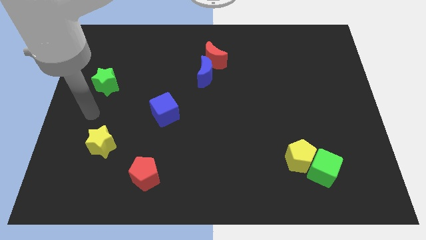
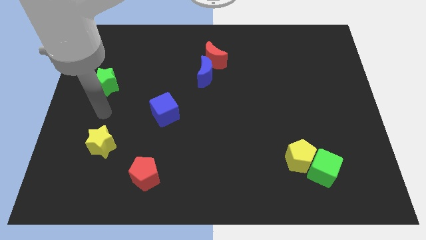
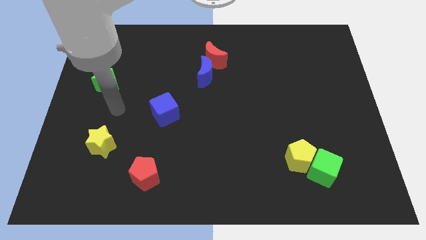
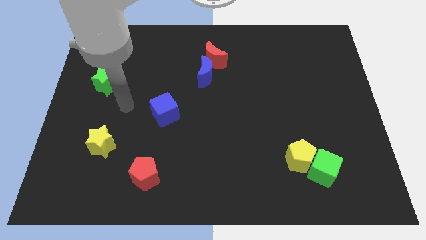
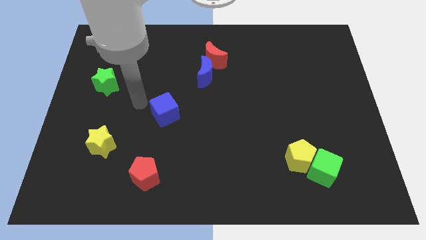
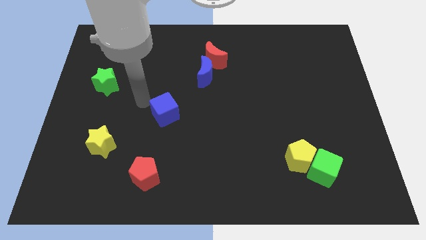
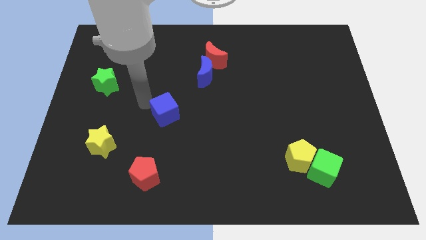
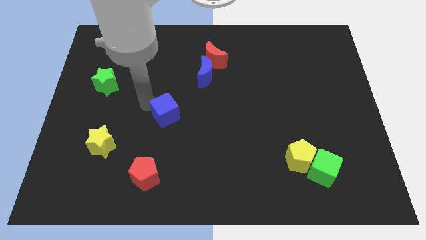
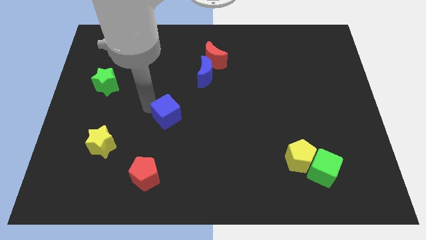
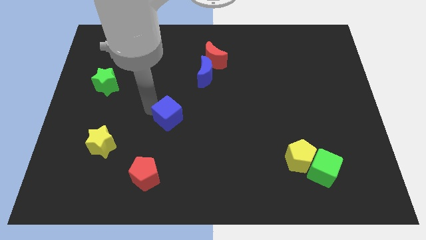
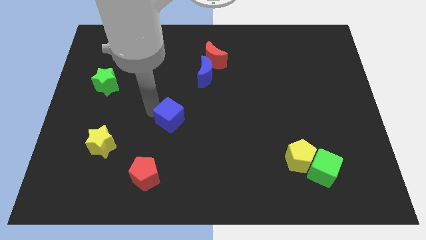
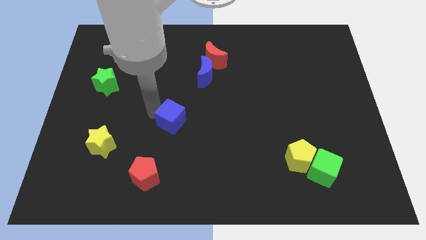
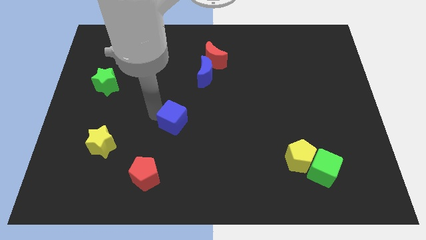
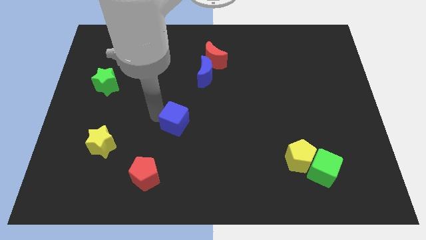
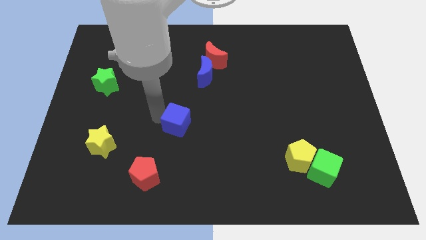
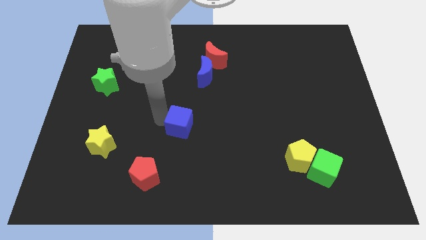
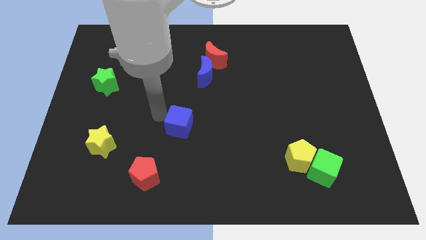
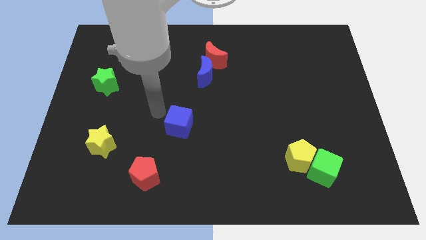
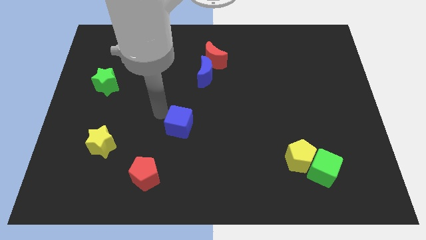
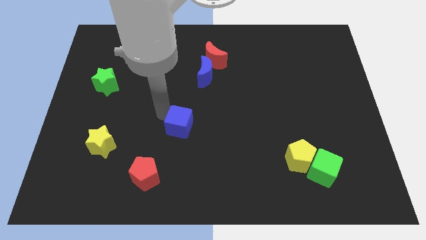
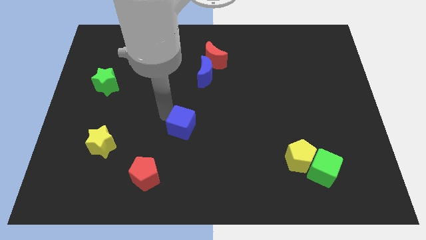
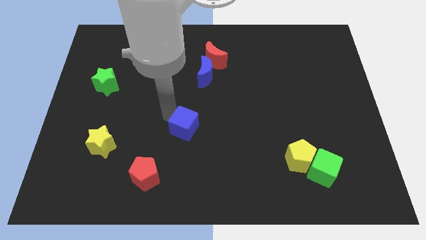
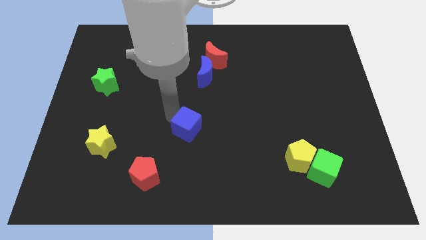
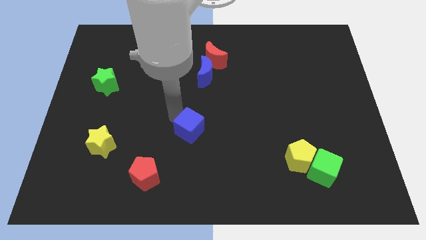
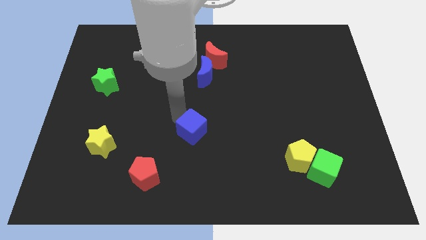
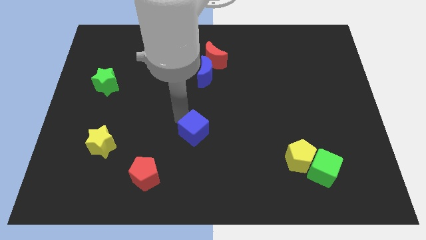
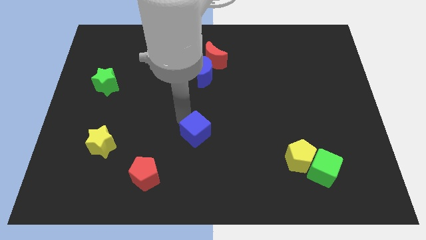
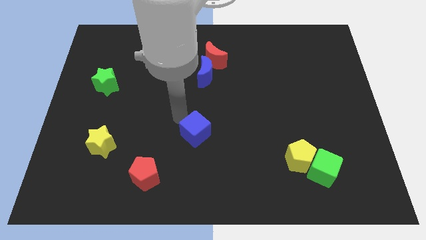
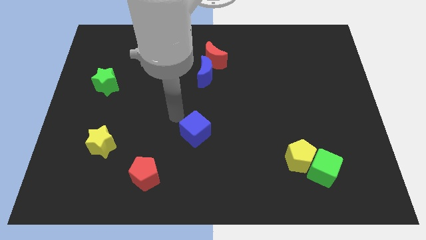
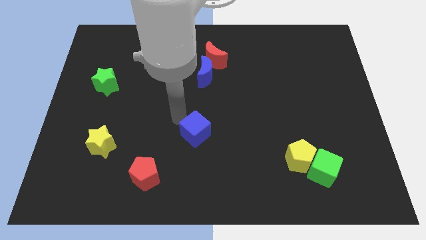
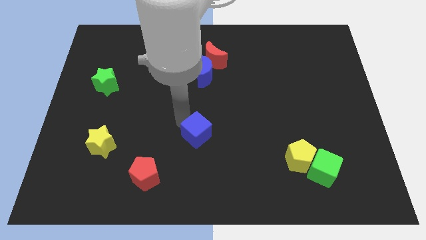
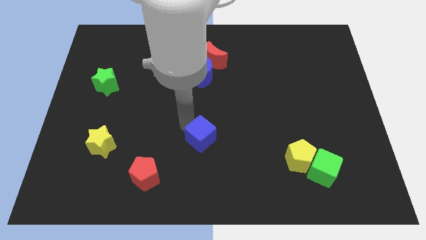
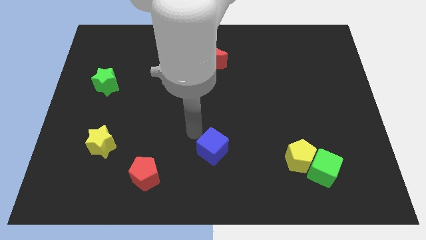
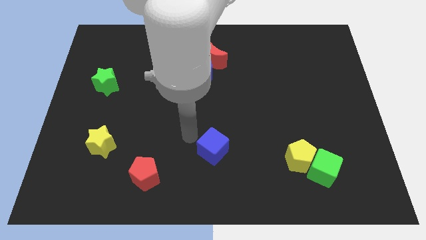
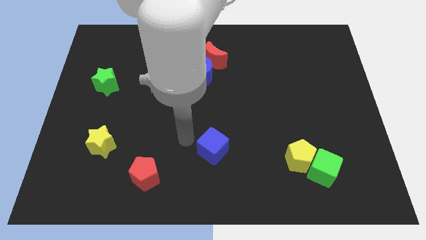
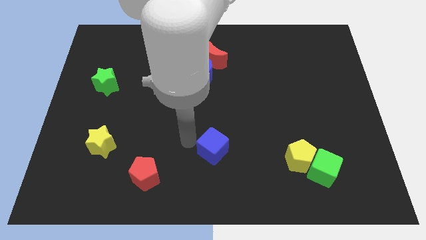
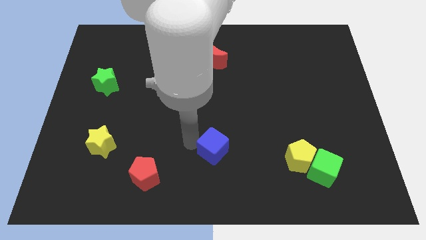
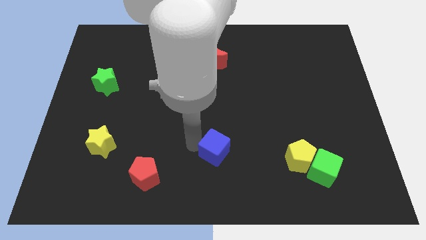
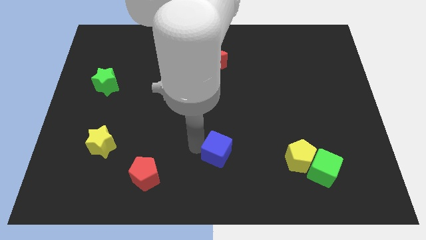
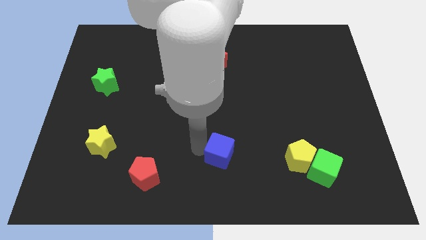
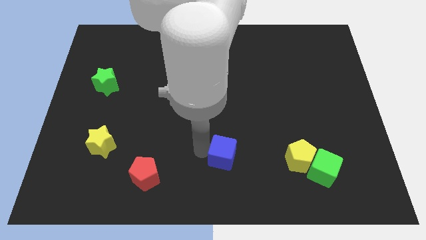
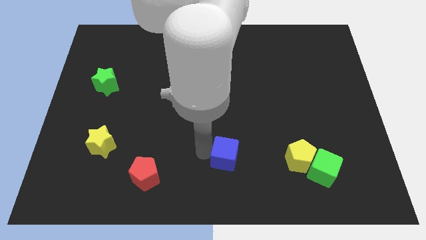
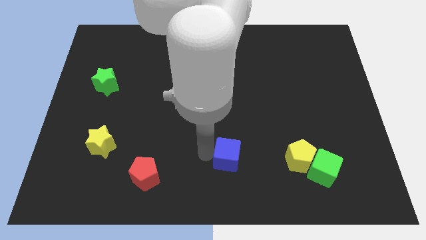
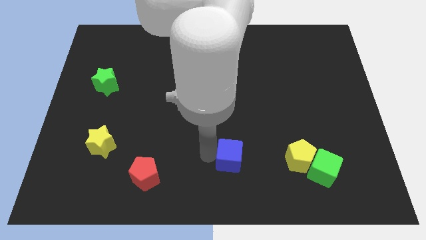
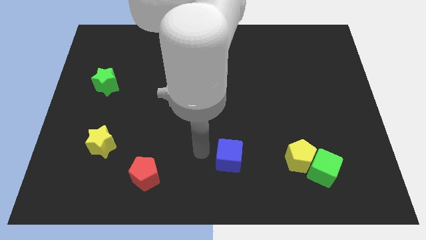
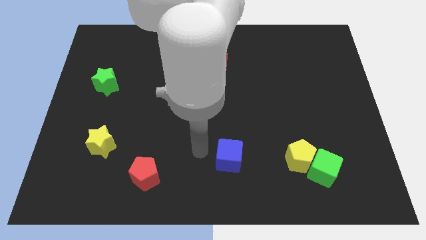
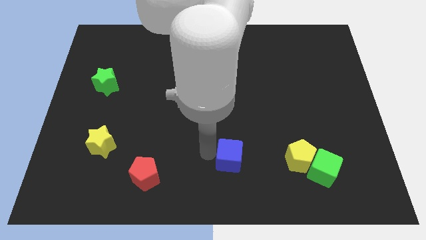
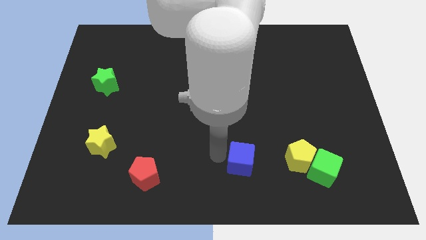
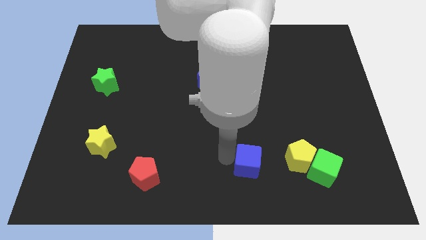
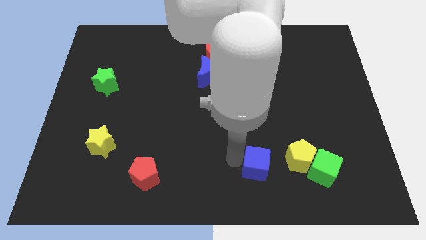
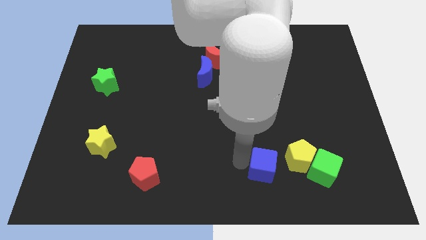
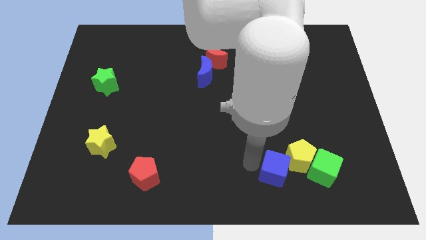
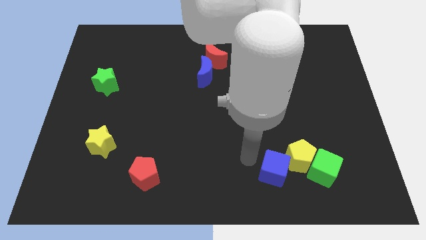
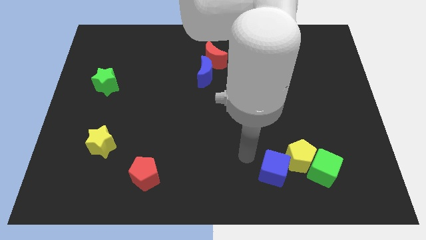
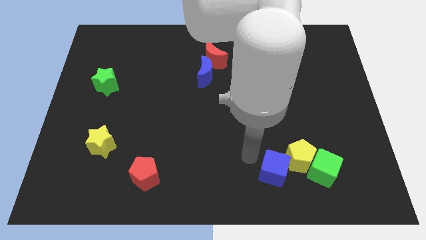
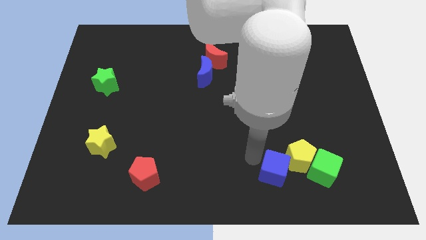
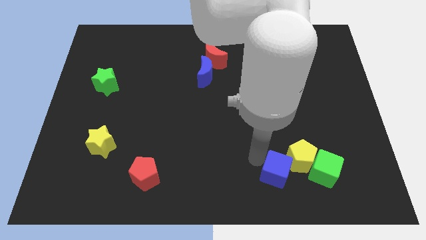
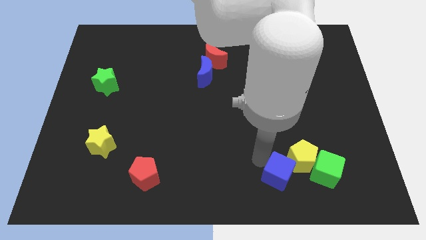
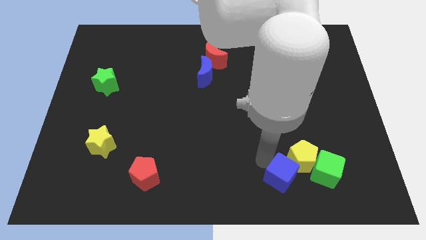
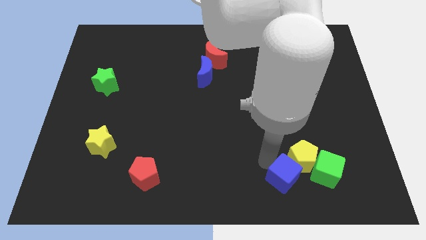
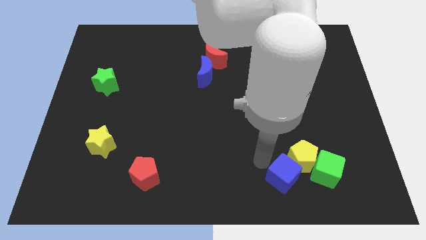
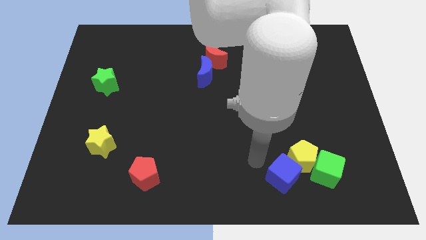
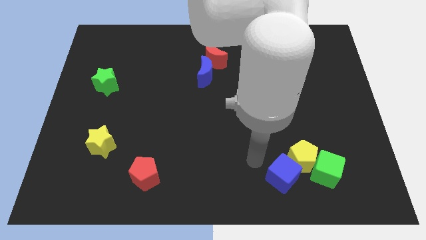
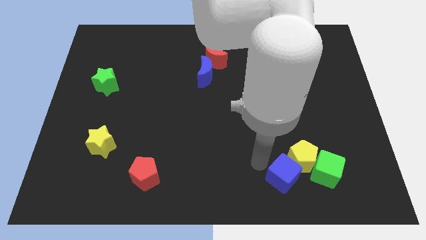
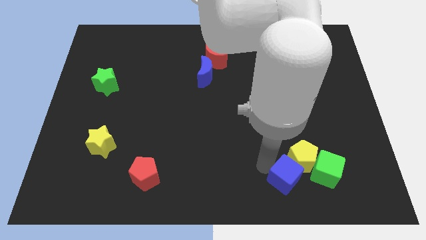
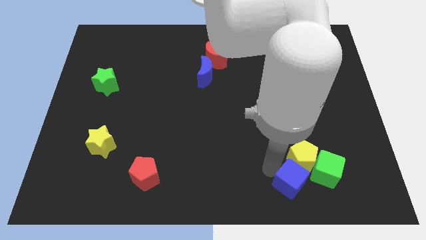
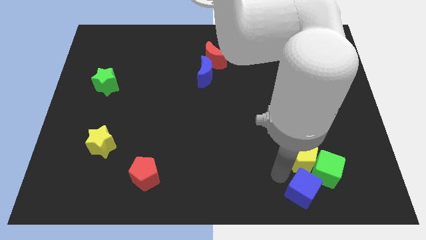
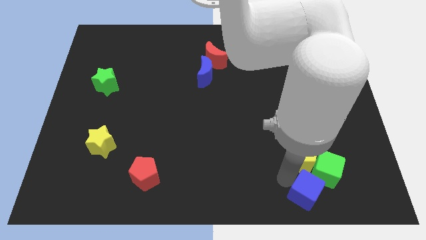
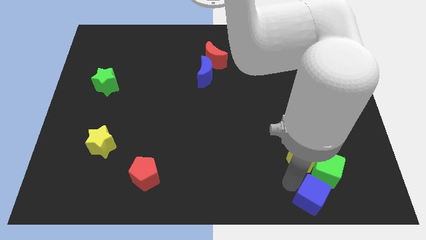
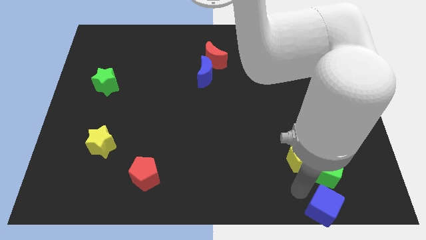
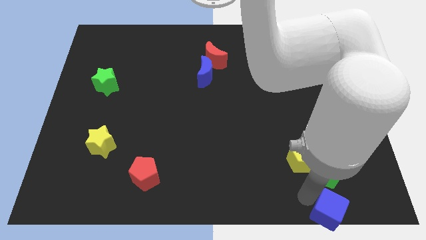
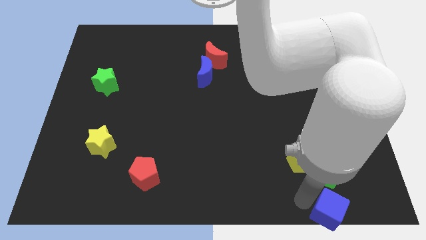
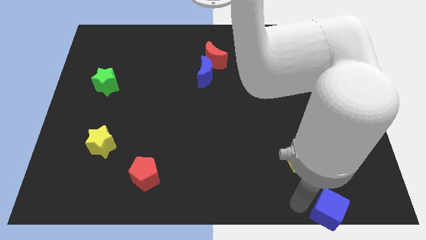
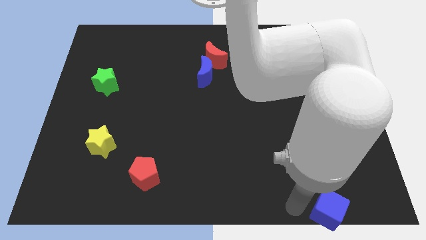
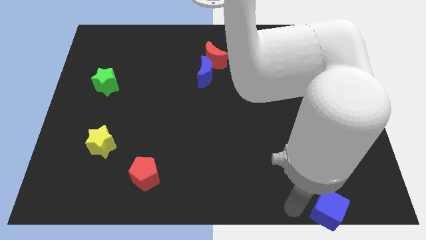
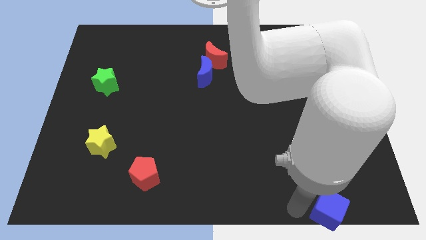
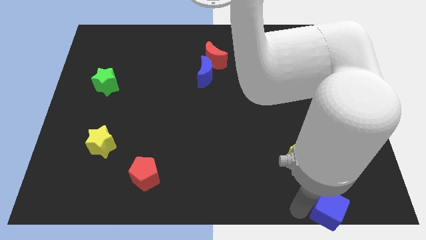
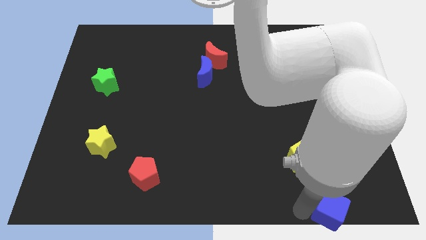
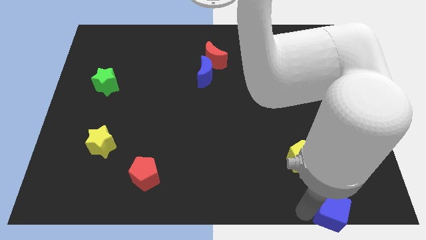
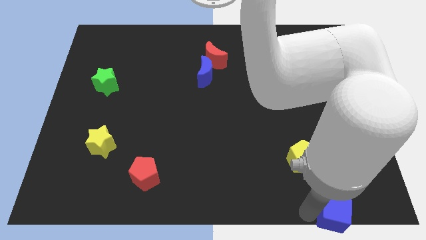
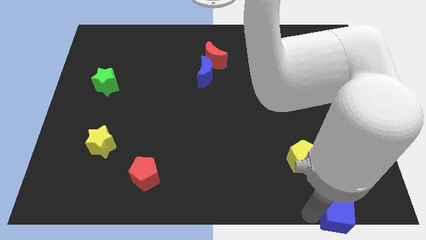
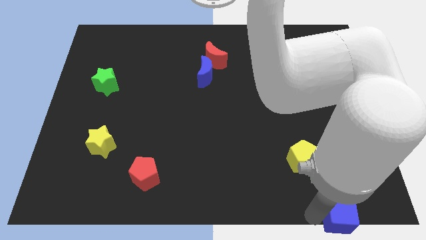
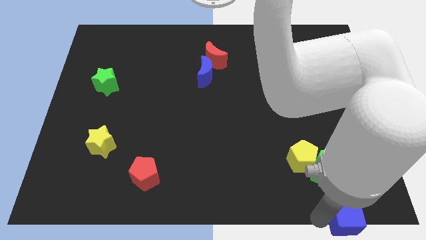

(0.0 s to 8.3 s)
slide the blue cube to the lower right corner
